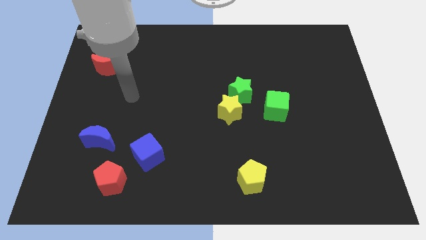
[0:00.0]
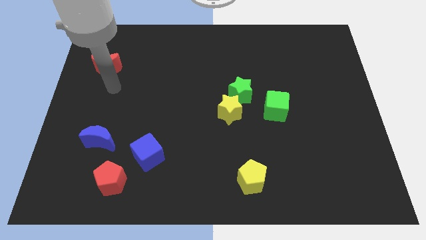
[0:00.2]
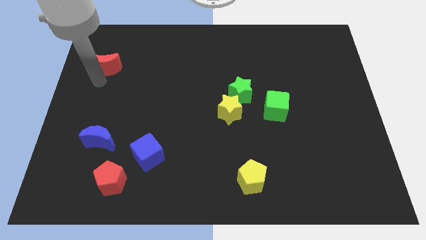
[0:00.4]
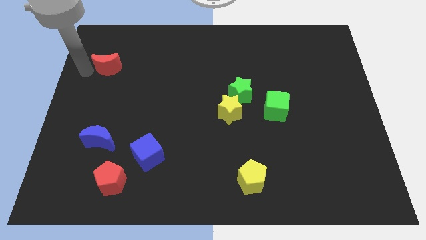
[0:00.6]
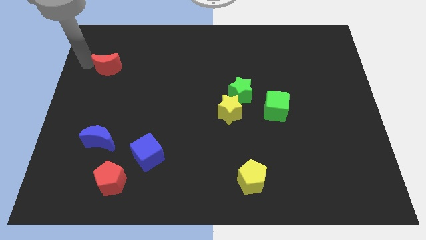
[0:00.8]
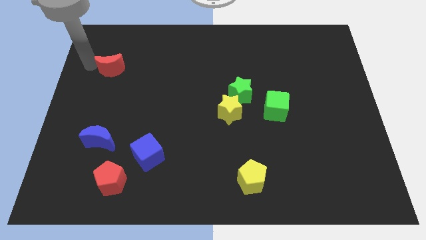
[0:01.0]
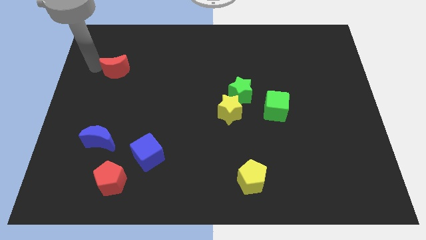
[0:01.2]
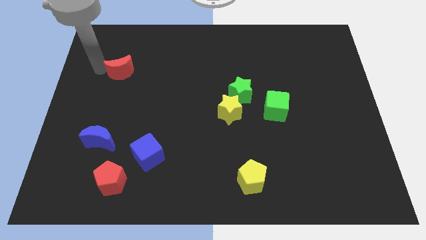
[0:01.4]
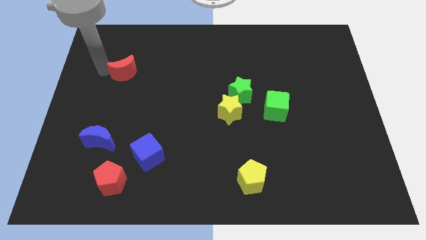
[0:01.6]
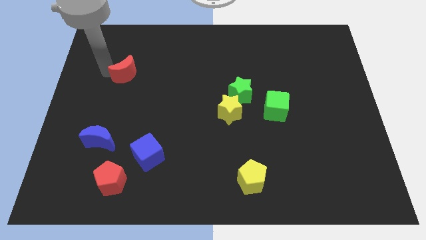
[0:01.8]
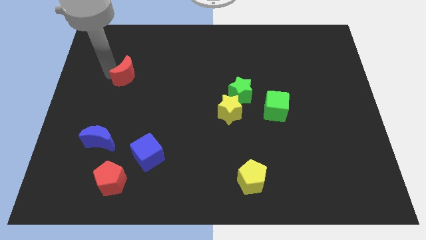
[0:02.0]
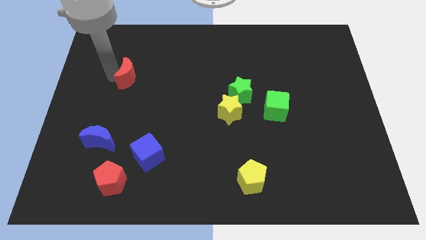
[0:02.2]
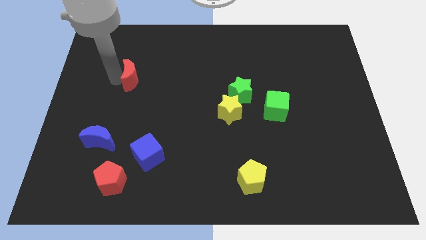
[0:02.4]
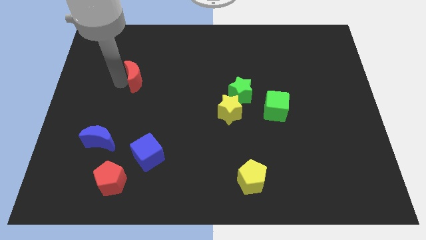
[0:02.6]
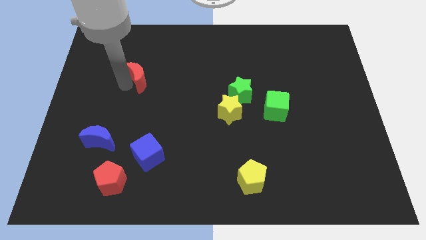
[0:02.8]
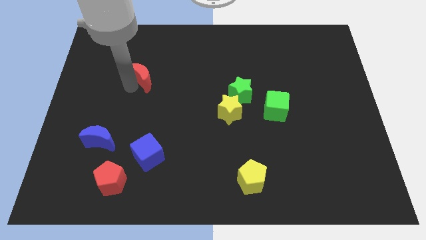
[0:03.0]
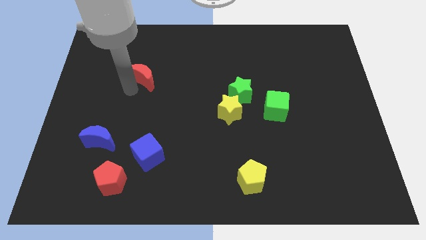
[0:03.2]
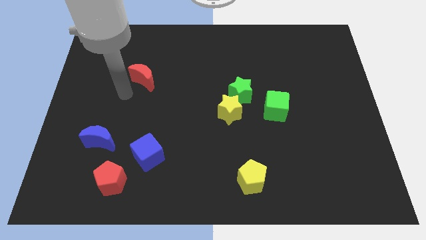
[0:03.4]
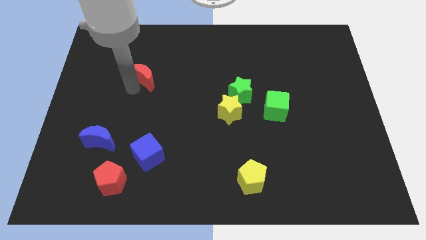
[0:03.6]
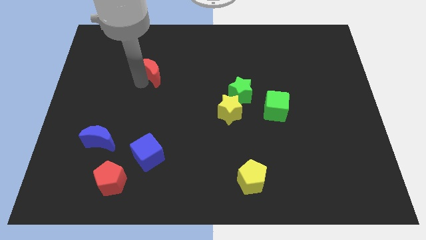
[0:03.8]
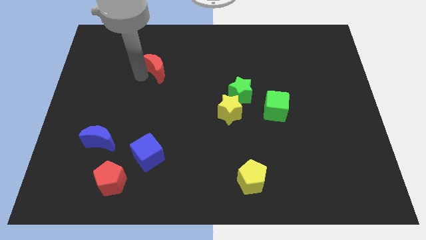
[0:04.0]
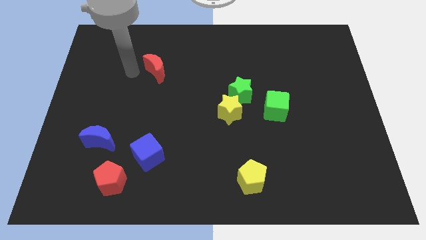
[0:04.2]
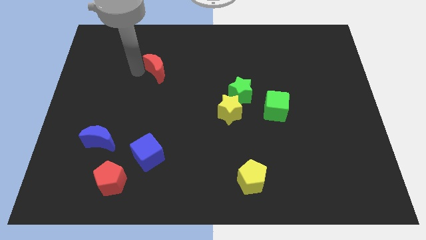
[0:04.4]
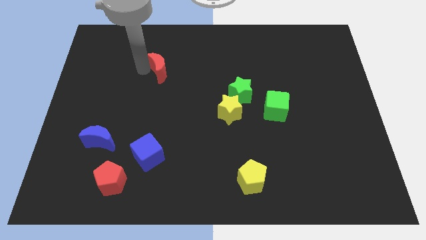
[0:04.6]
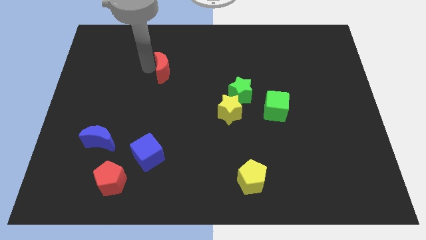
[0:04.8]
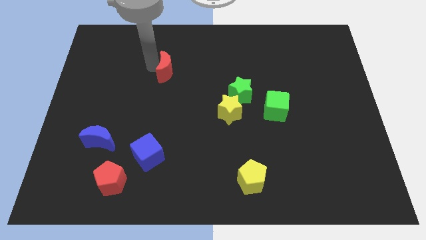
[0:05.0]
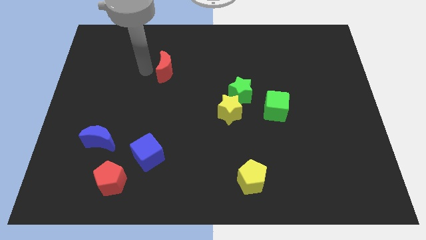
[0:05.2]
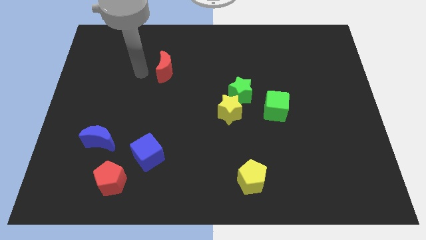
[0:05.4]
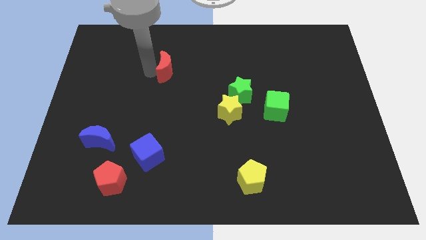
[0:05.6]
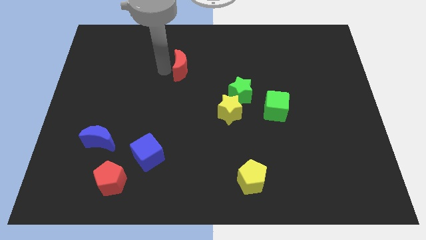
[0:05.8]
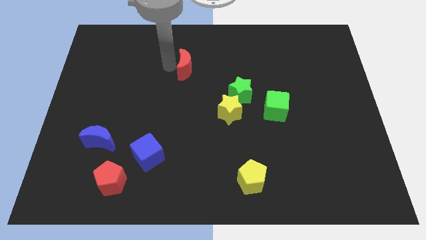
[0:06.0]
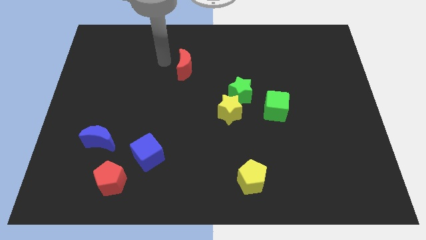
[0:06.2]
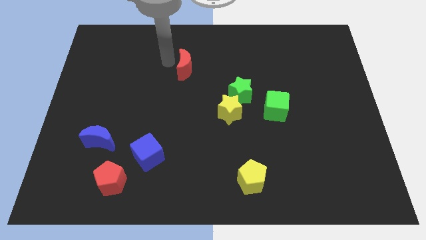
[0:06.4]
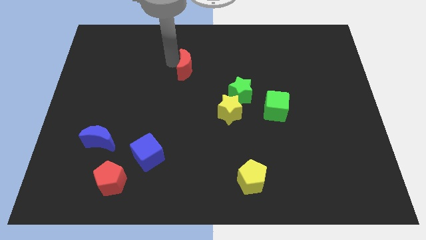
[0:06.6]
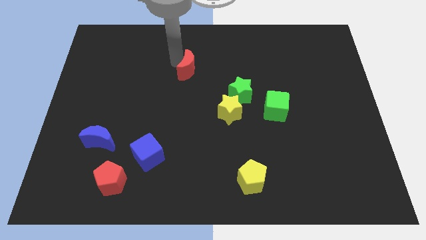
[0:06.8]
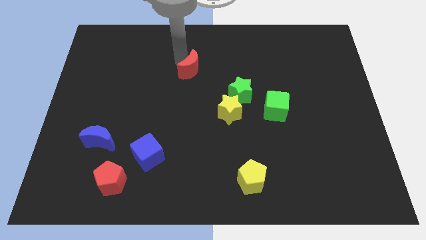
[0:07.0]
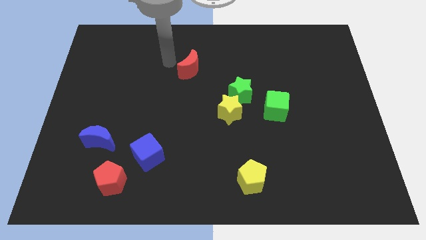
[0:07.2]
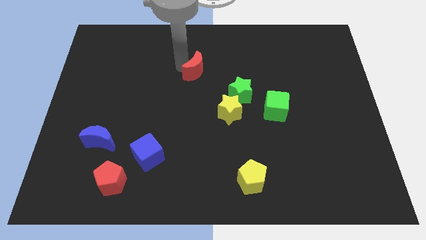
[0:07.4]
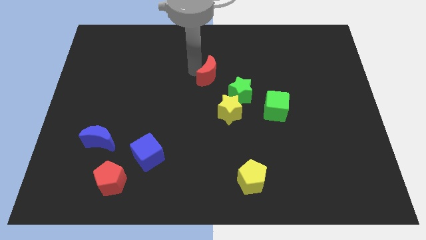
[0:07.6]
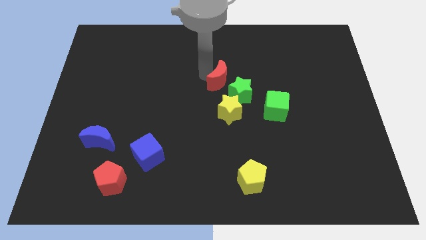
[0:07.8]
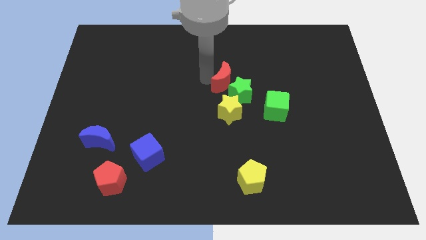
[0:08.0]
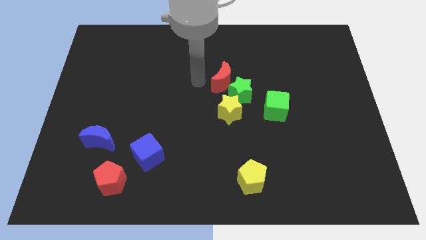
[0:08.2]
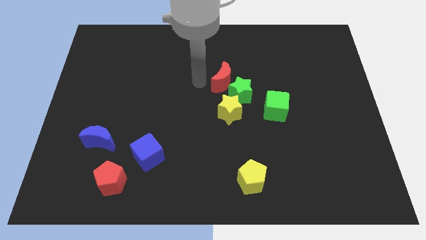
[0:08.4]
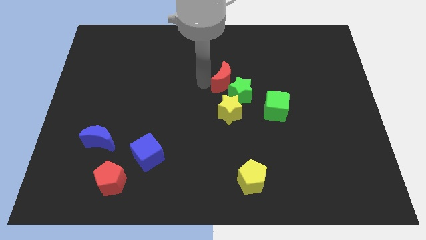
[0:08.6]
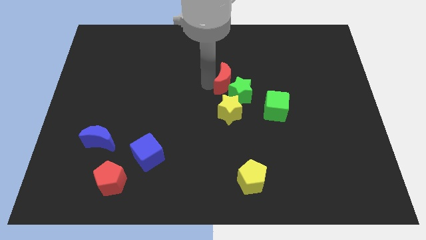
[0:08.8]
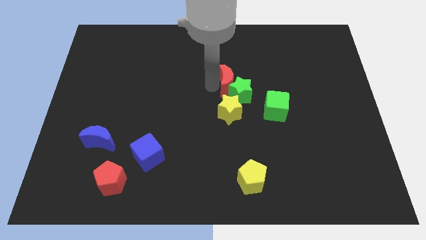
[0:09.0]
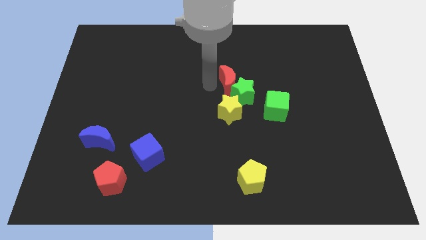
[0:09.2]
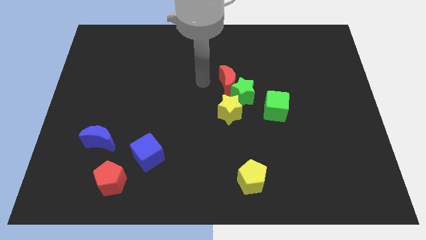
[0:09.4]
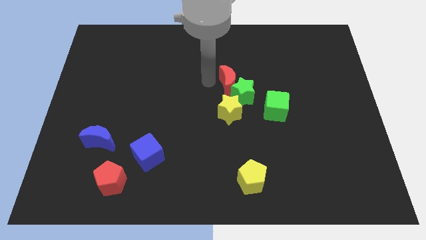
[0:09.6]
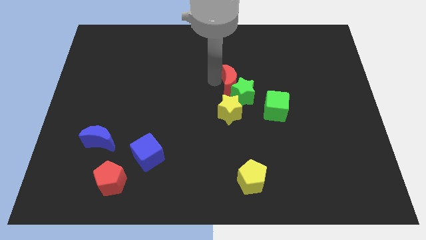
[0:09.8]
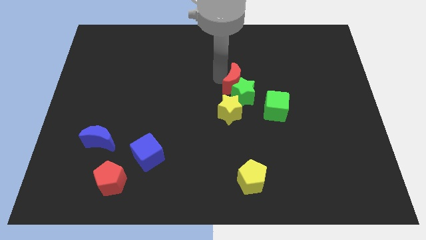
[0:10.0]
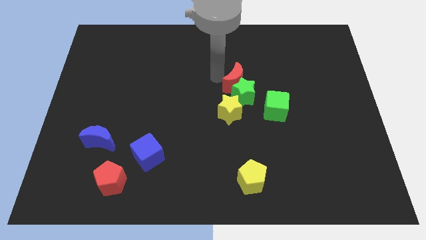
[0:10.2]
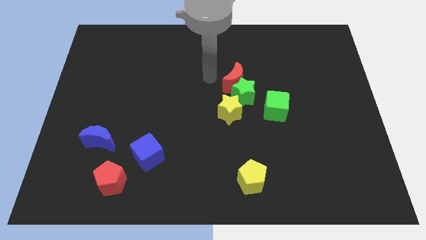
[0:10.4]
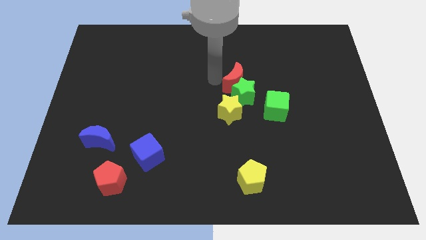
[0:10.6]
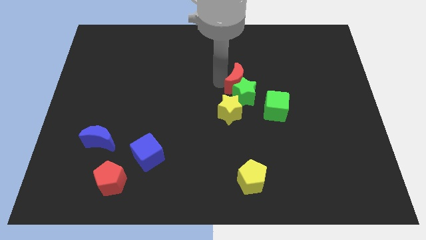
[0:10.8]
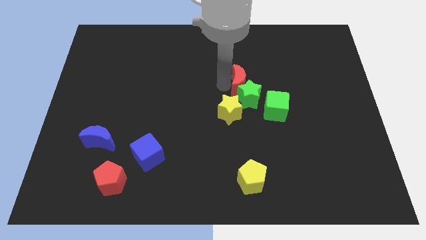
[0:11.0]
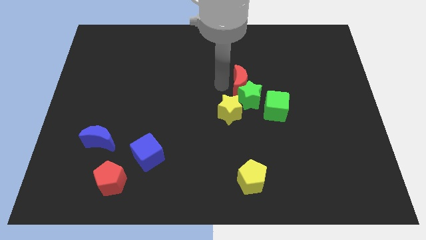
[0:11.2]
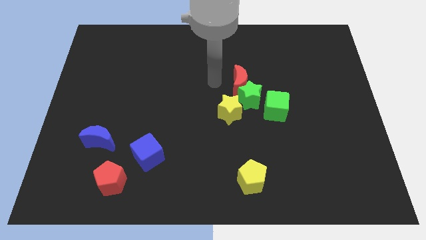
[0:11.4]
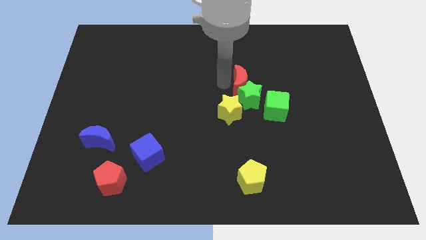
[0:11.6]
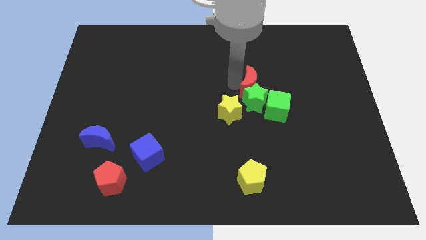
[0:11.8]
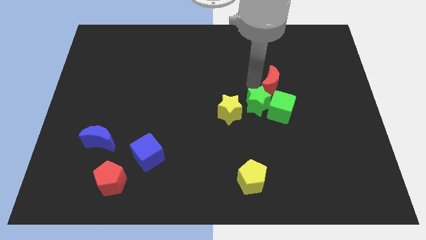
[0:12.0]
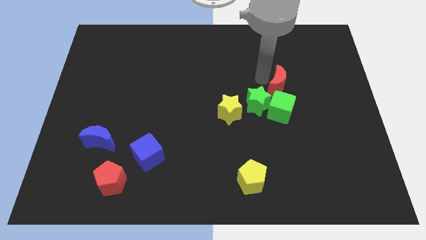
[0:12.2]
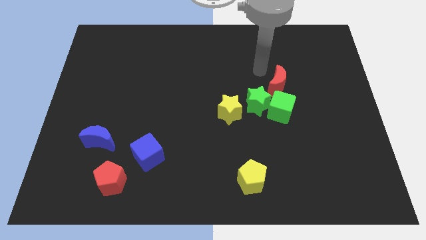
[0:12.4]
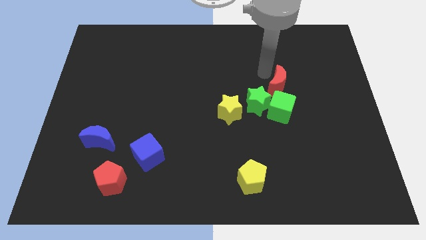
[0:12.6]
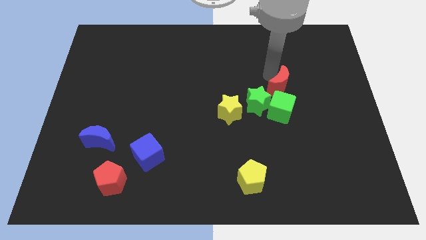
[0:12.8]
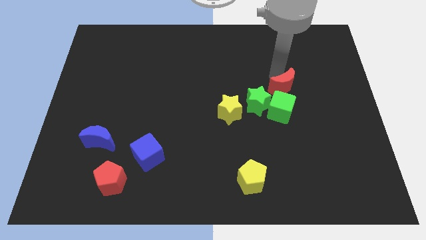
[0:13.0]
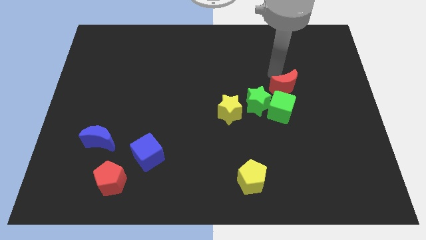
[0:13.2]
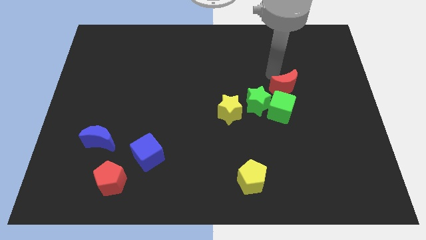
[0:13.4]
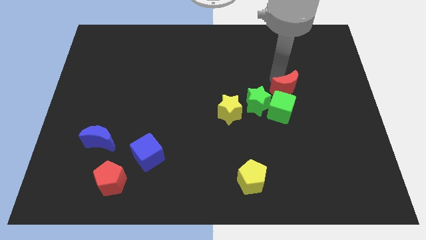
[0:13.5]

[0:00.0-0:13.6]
move the red moon to the right of the green star
